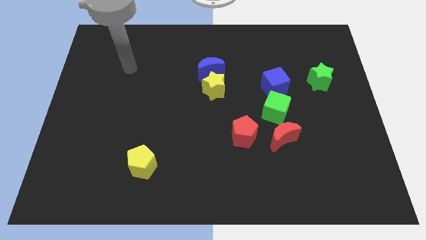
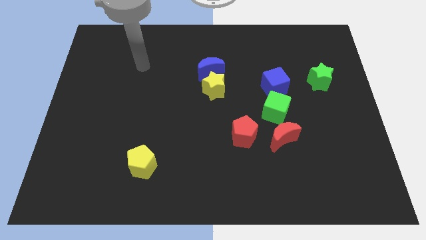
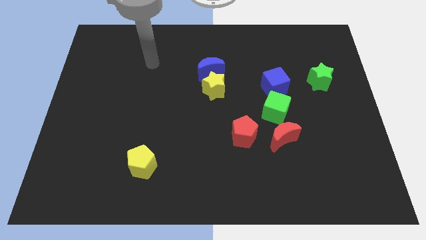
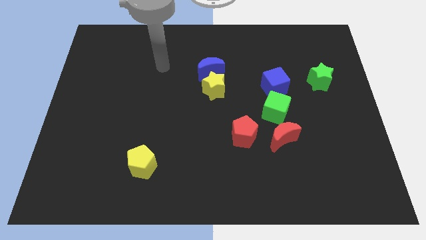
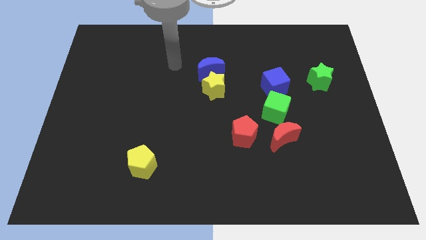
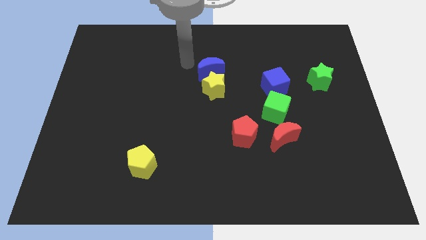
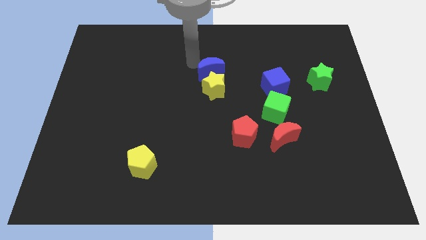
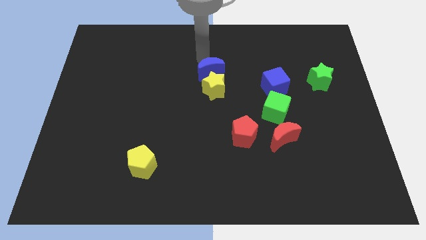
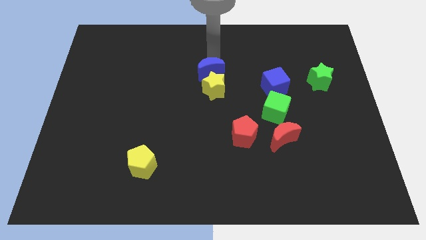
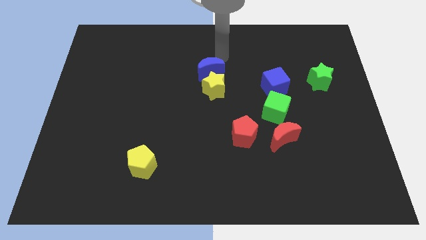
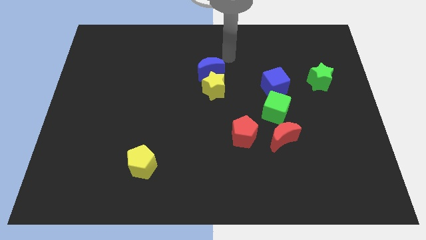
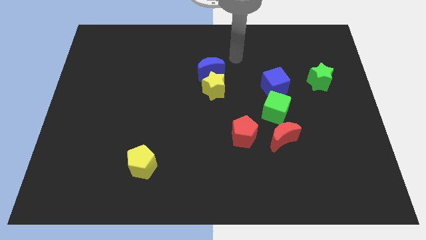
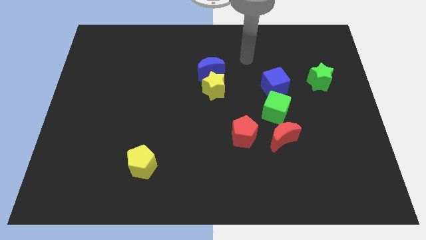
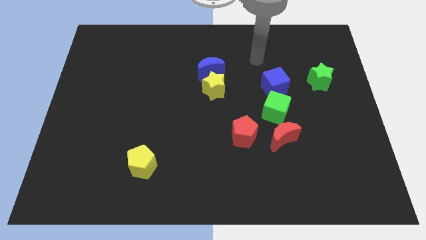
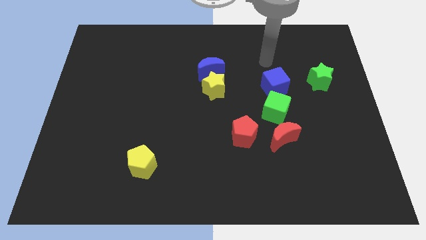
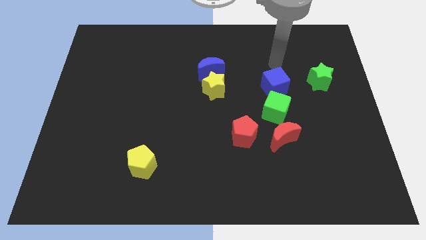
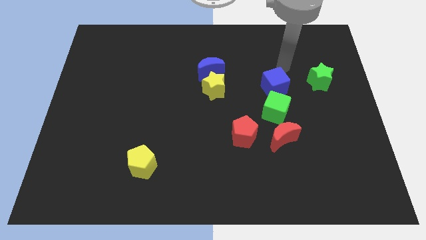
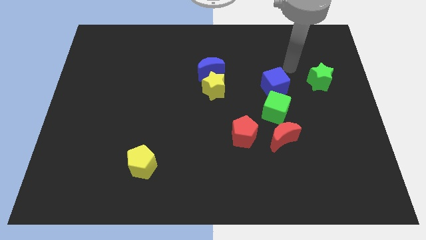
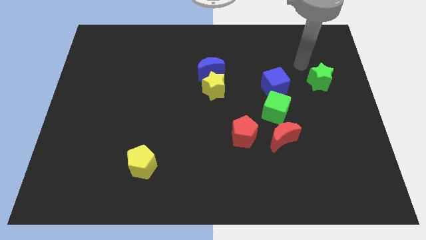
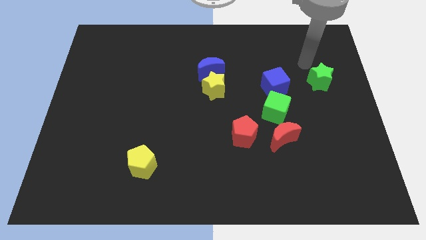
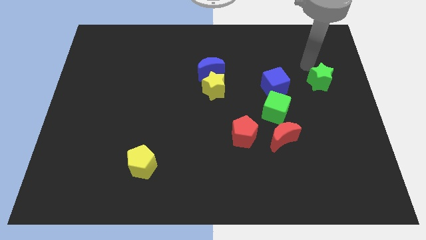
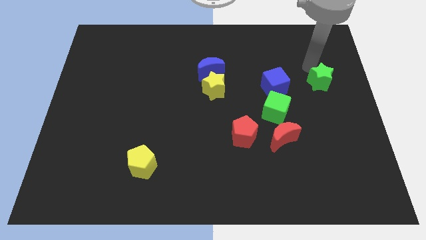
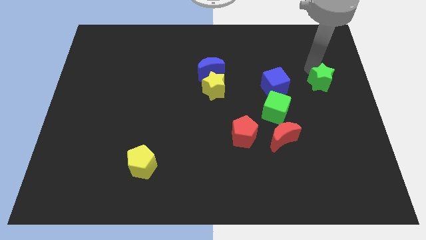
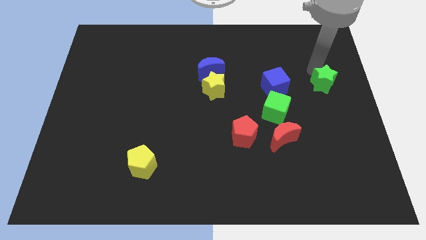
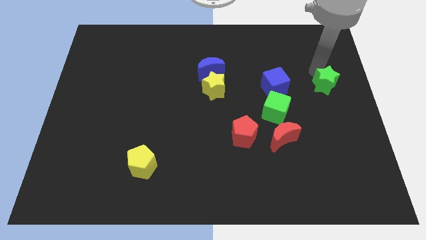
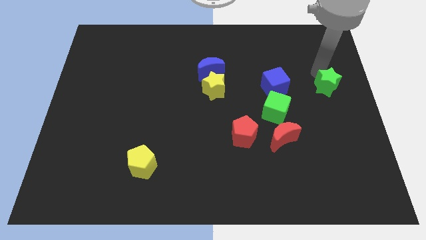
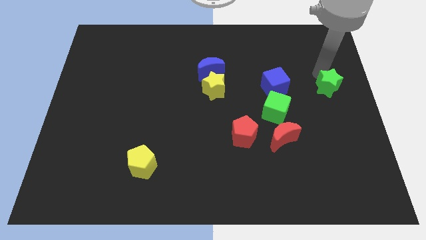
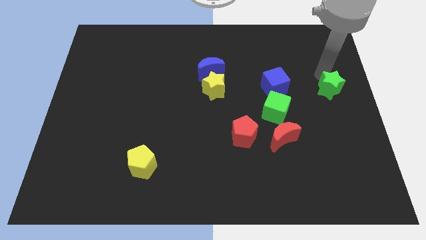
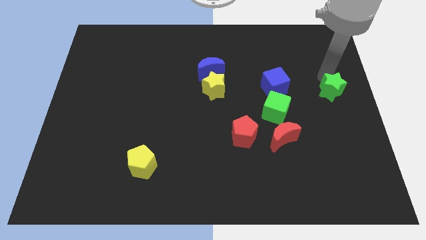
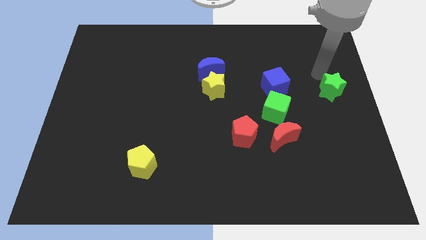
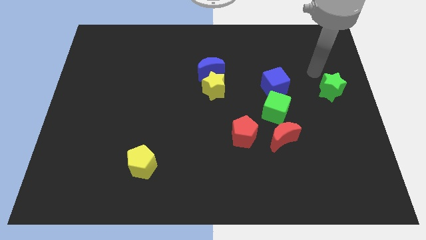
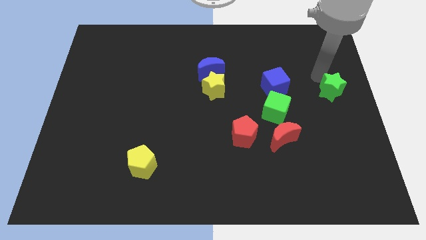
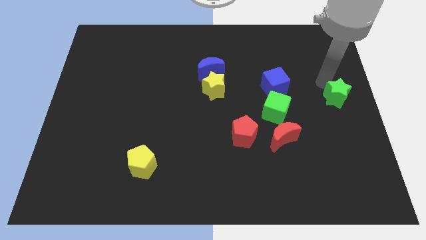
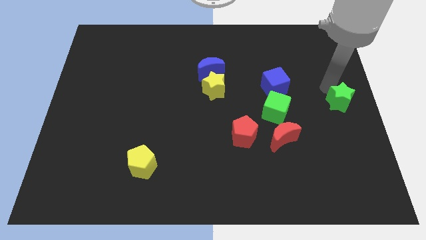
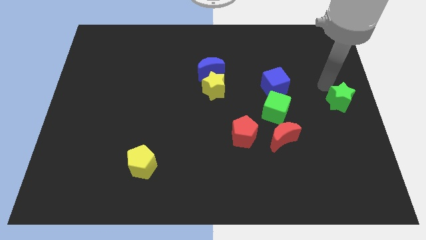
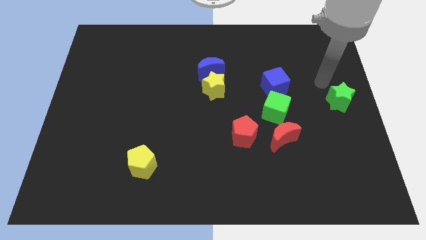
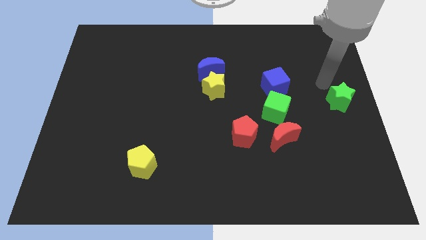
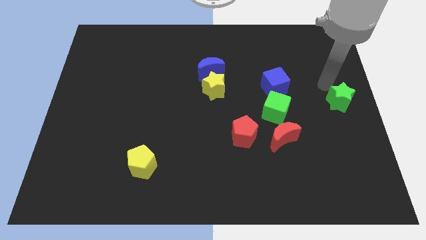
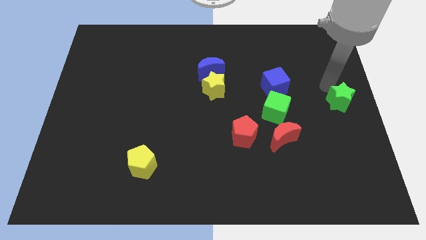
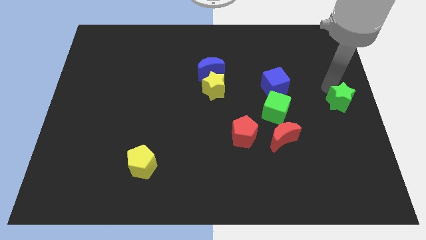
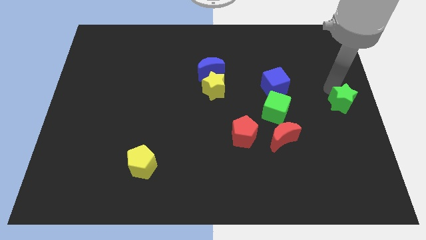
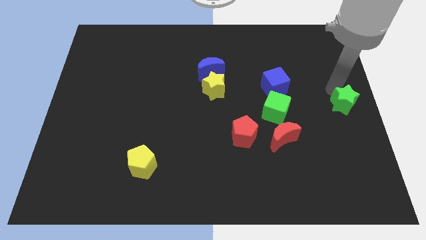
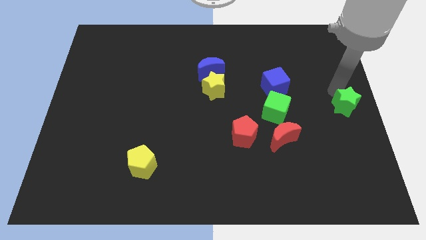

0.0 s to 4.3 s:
slightly push the green star downwards

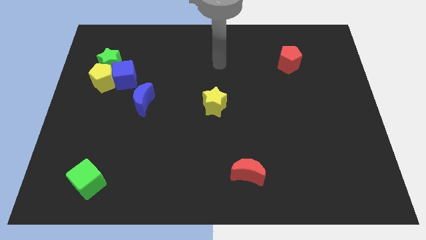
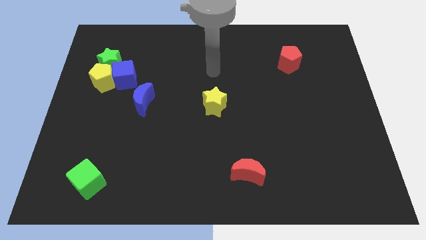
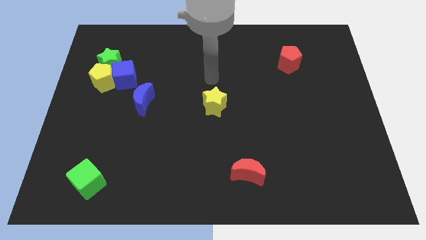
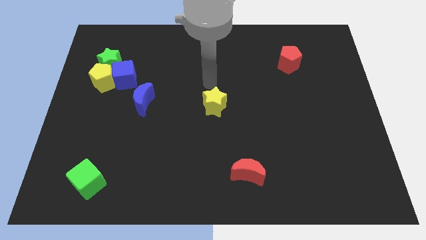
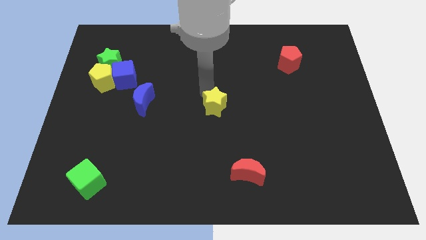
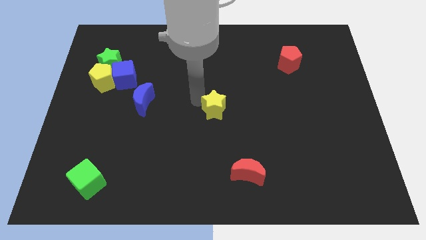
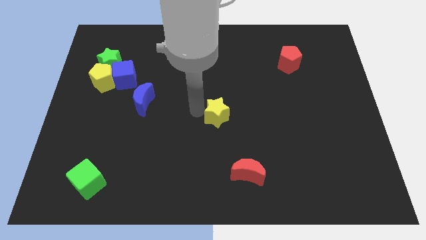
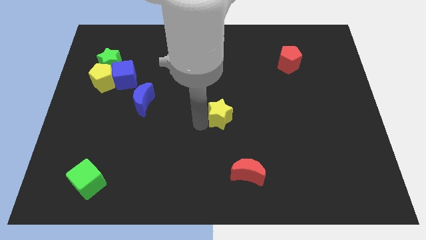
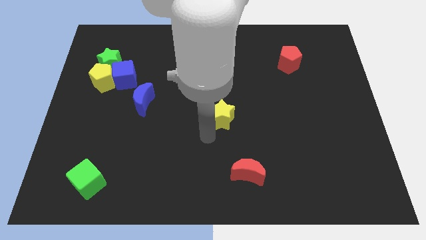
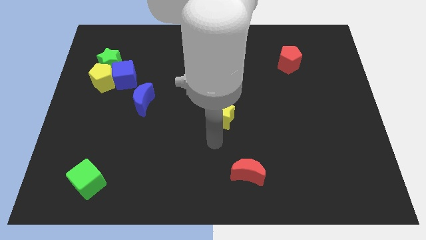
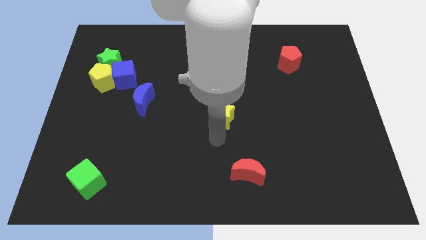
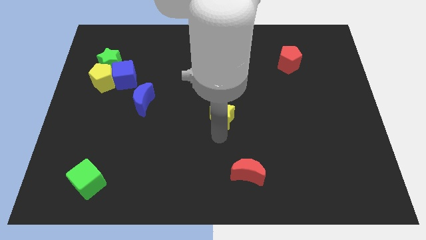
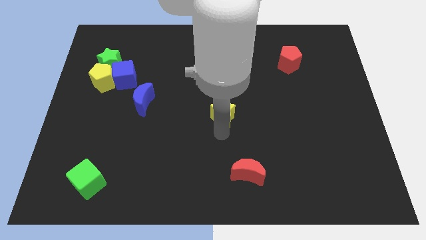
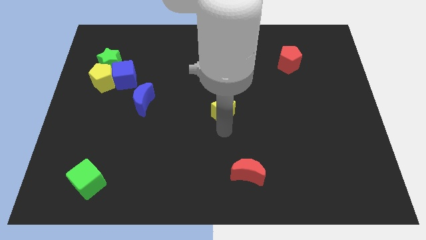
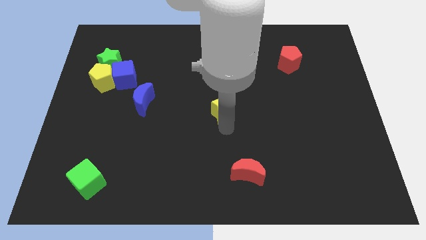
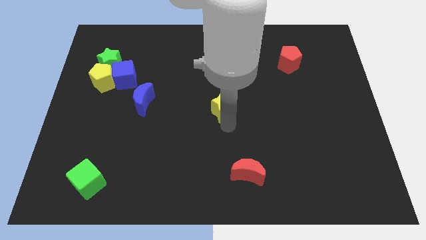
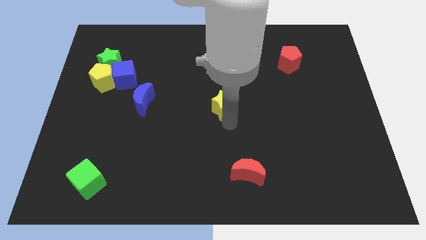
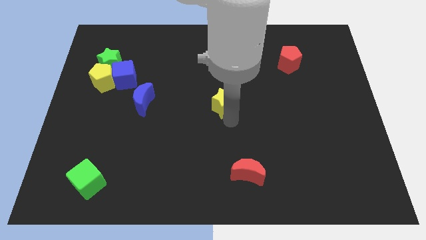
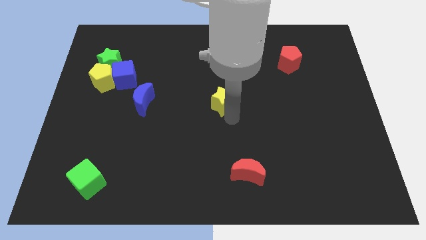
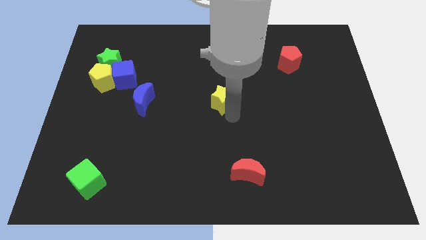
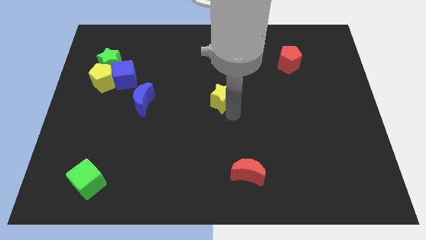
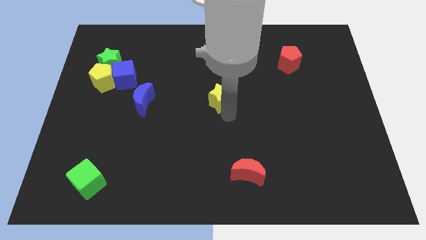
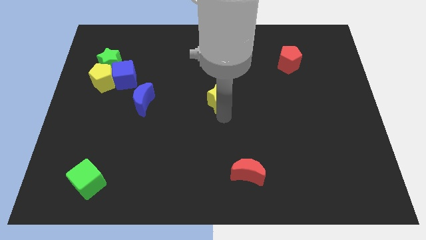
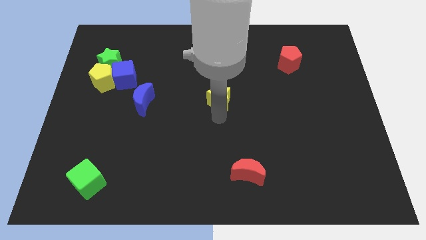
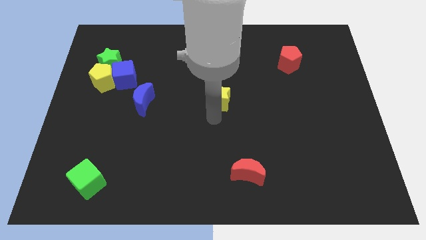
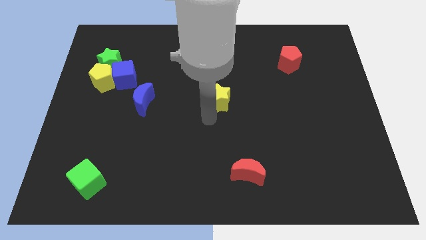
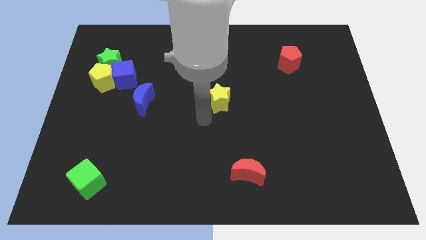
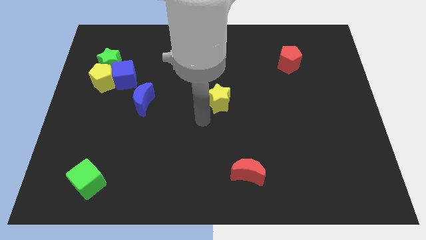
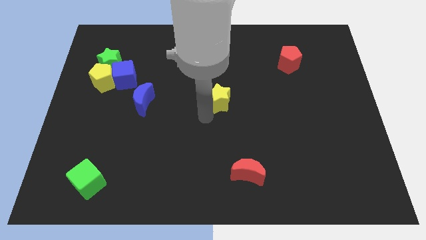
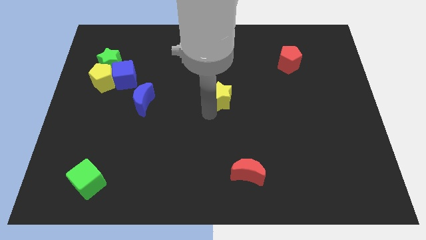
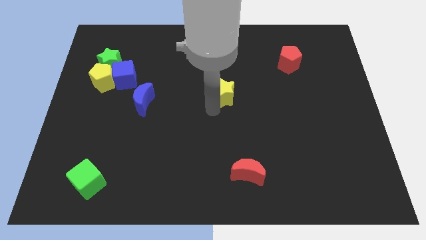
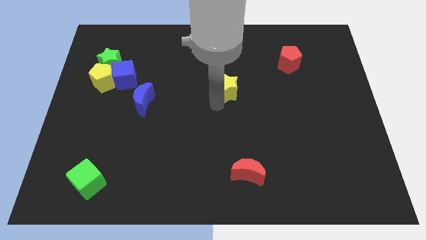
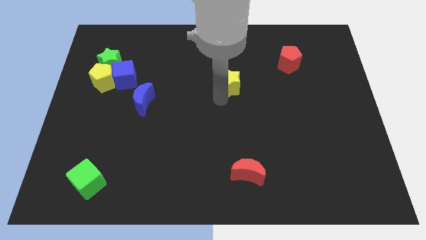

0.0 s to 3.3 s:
slightly move the yellow star upwards and right
